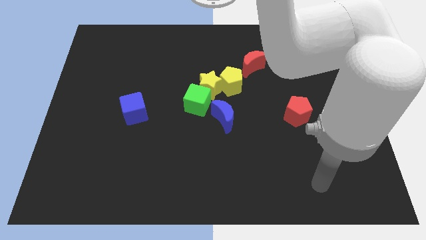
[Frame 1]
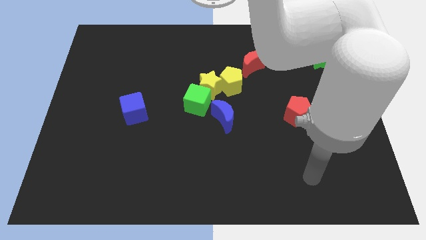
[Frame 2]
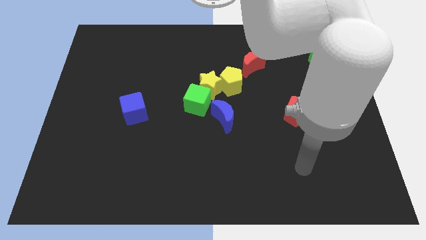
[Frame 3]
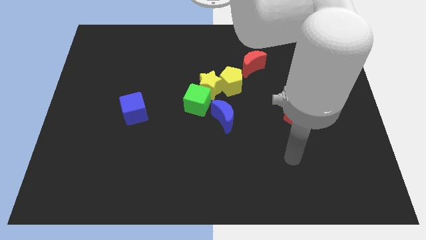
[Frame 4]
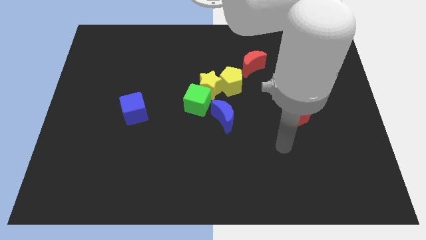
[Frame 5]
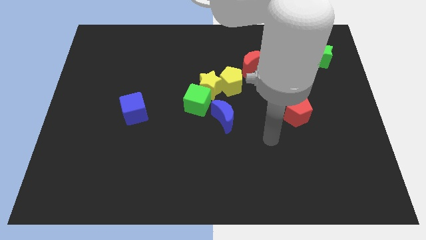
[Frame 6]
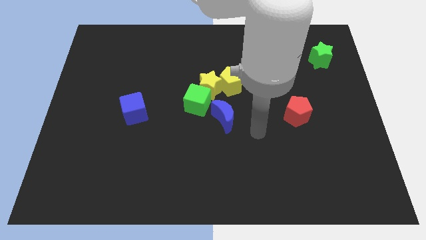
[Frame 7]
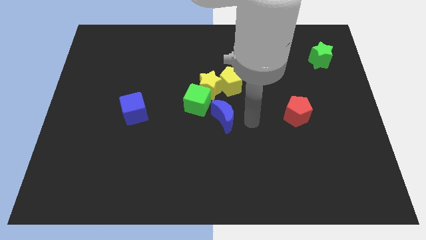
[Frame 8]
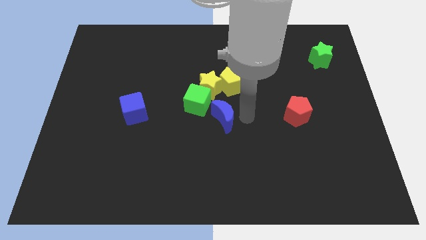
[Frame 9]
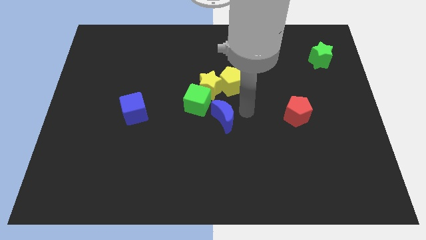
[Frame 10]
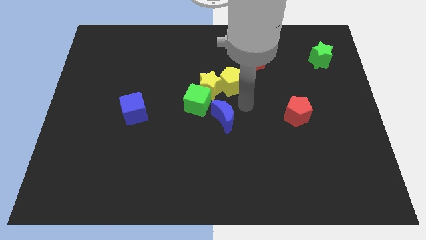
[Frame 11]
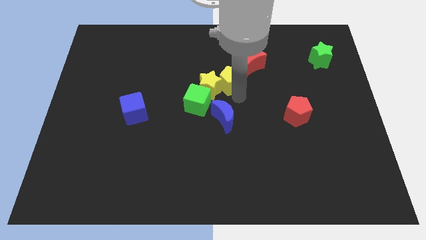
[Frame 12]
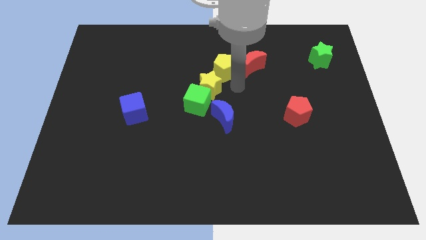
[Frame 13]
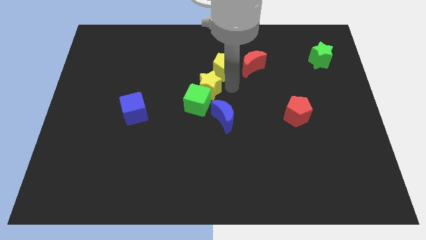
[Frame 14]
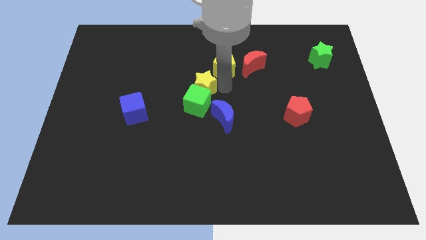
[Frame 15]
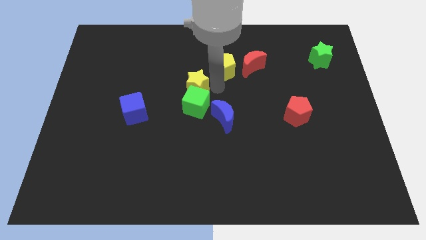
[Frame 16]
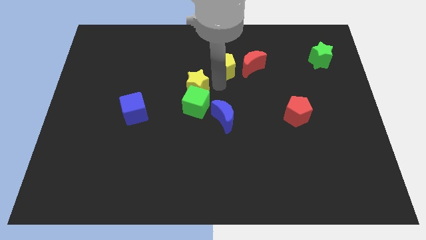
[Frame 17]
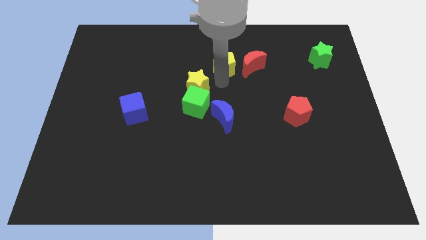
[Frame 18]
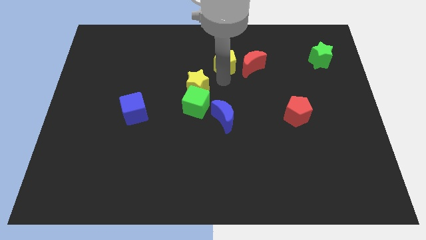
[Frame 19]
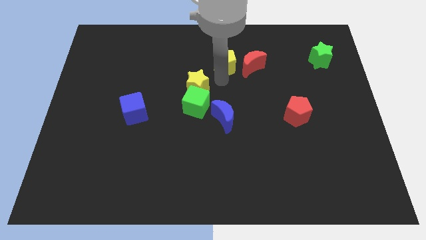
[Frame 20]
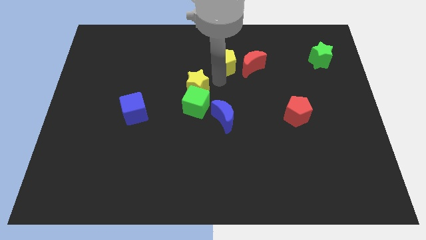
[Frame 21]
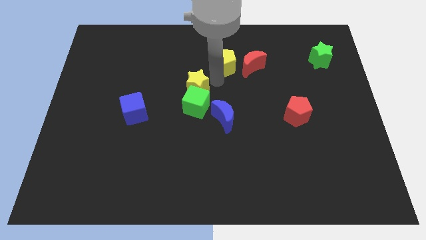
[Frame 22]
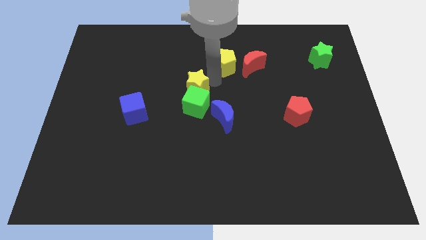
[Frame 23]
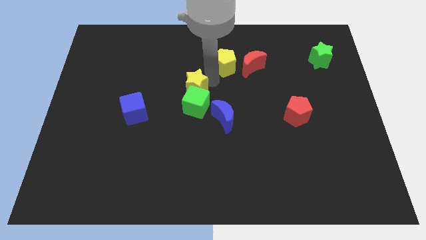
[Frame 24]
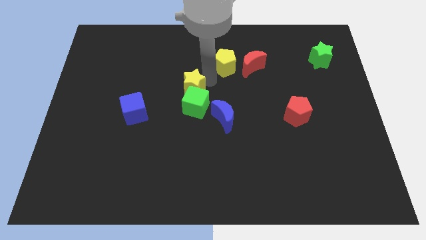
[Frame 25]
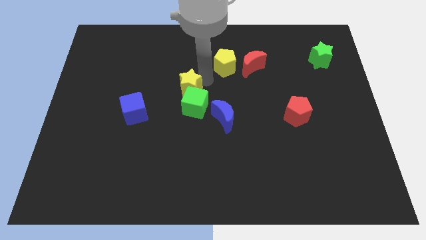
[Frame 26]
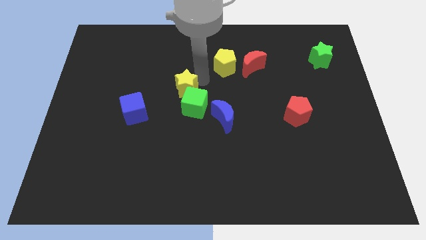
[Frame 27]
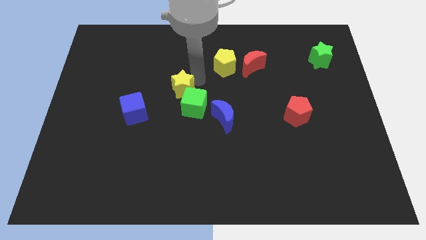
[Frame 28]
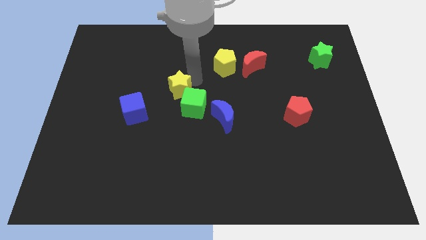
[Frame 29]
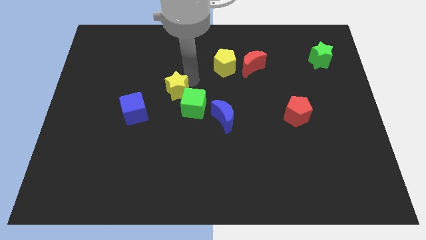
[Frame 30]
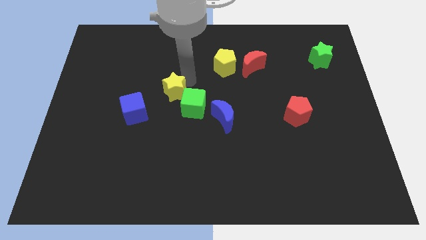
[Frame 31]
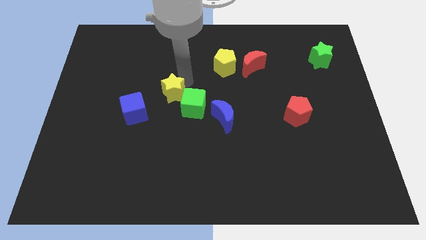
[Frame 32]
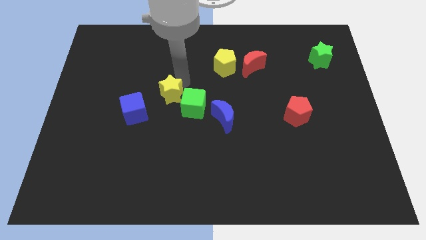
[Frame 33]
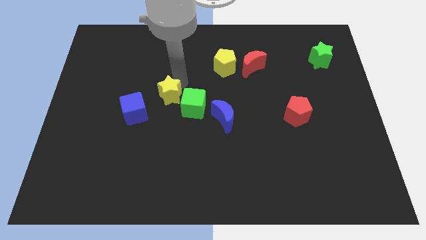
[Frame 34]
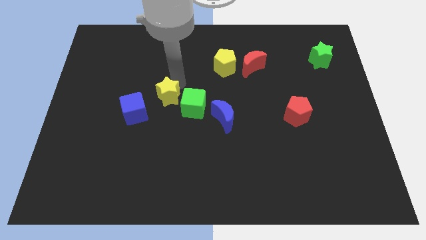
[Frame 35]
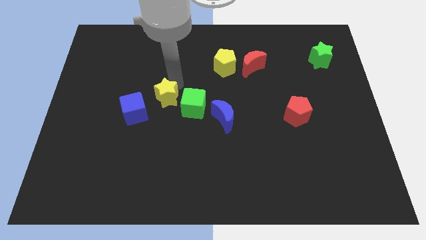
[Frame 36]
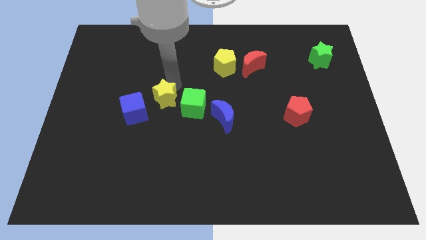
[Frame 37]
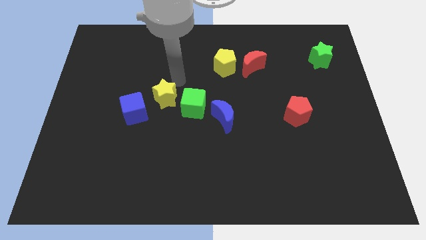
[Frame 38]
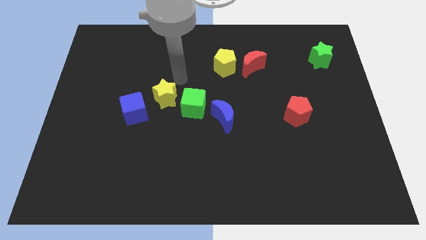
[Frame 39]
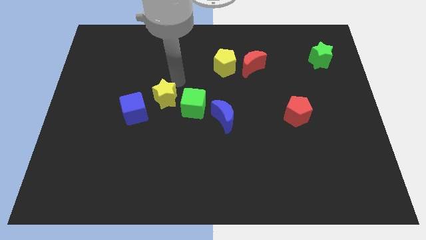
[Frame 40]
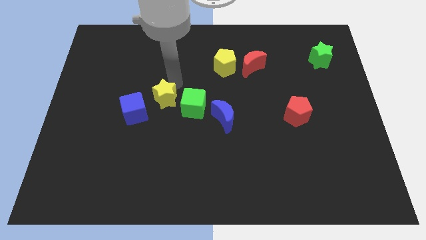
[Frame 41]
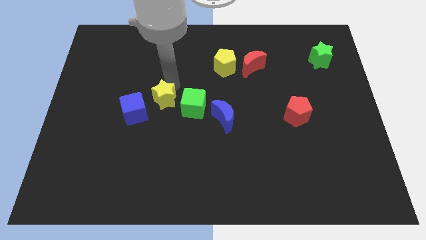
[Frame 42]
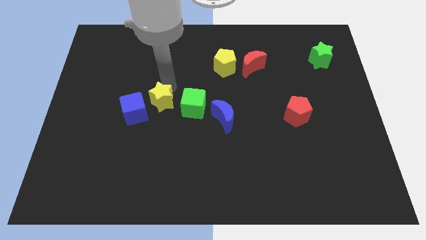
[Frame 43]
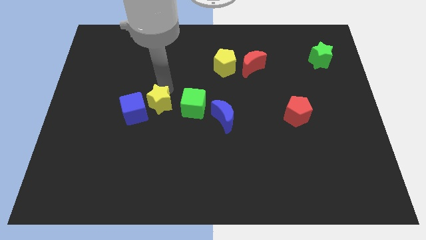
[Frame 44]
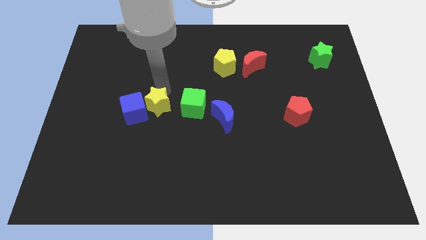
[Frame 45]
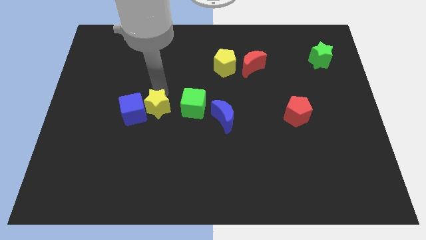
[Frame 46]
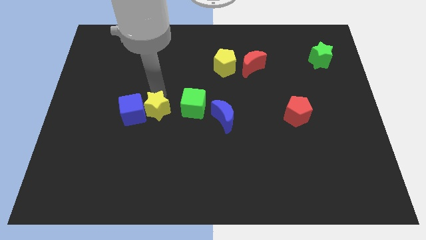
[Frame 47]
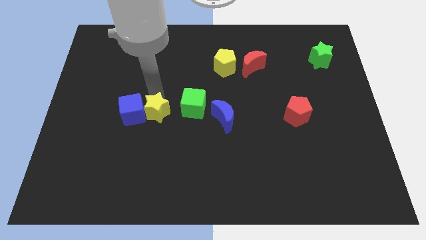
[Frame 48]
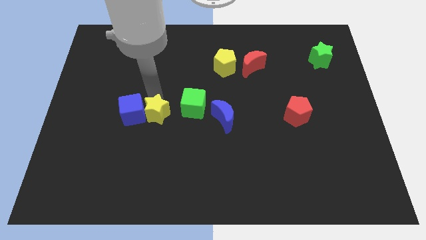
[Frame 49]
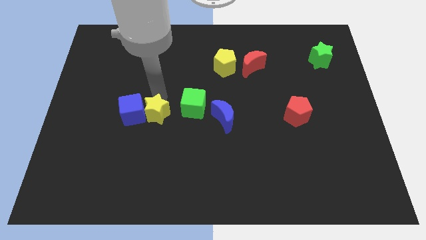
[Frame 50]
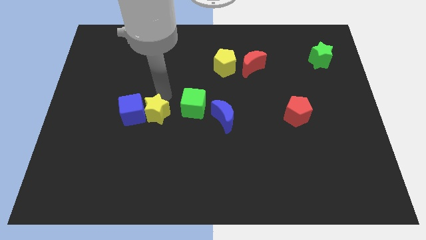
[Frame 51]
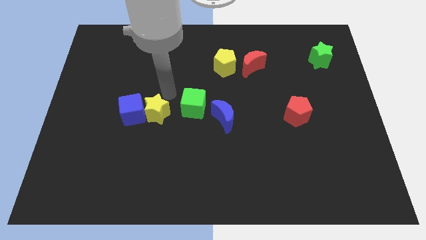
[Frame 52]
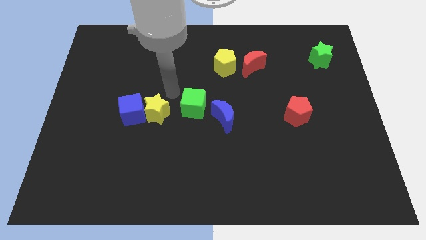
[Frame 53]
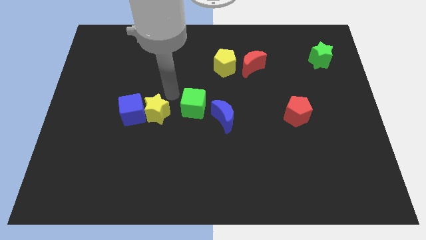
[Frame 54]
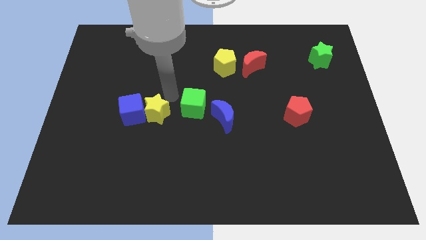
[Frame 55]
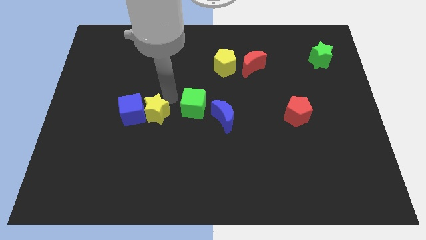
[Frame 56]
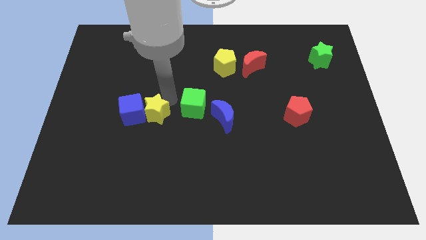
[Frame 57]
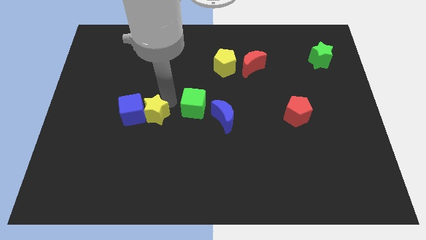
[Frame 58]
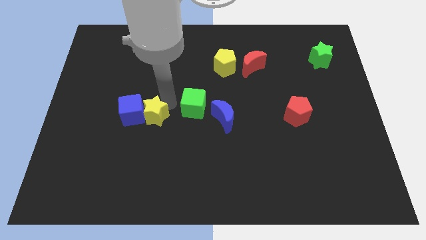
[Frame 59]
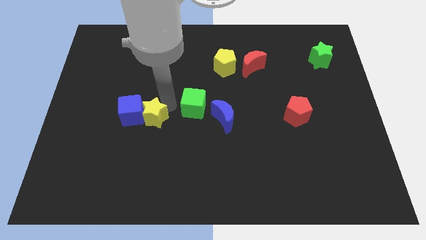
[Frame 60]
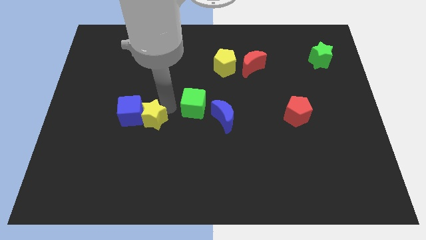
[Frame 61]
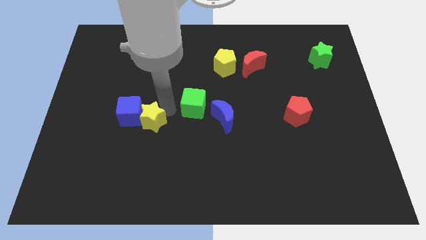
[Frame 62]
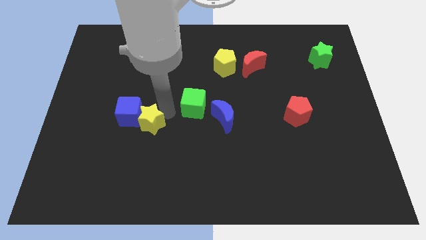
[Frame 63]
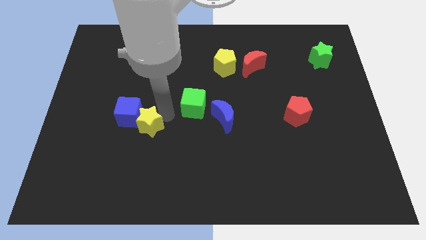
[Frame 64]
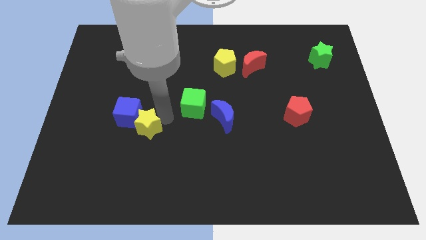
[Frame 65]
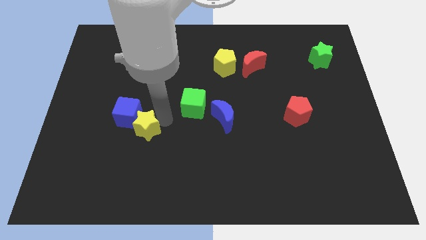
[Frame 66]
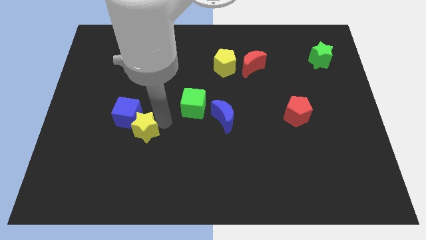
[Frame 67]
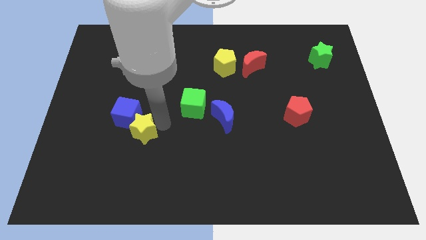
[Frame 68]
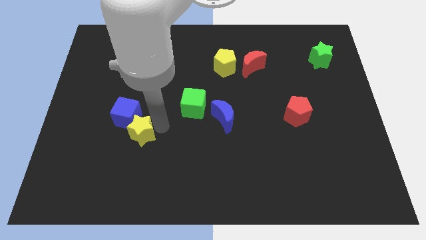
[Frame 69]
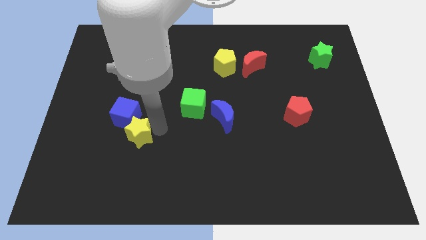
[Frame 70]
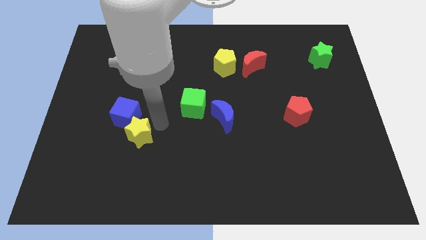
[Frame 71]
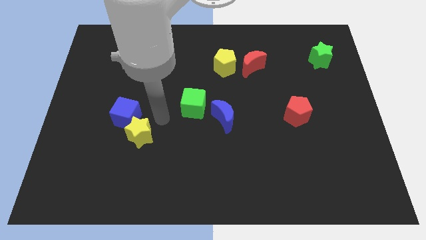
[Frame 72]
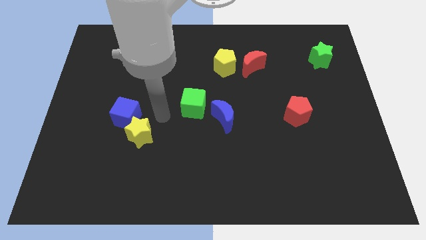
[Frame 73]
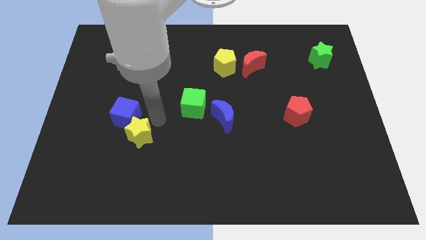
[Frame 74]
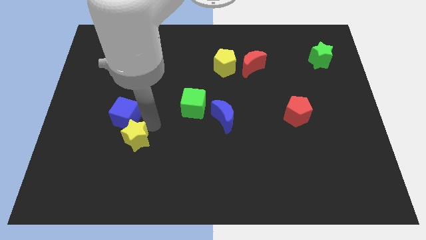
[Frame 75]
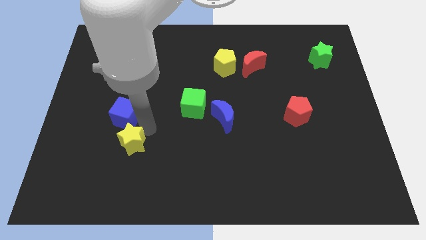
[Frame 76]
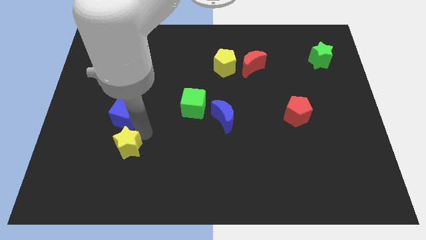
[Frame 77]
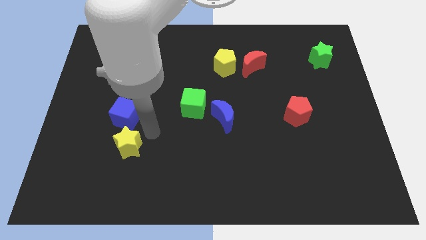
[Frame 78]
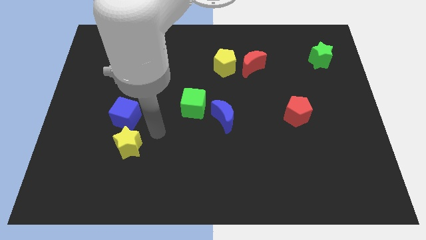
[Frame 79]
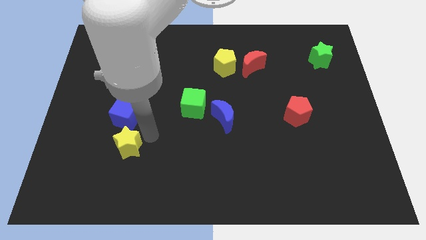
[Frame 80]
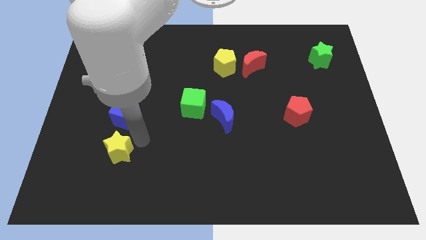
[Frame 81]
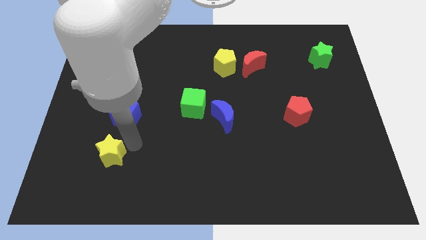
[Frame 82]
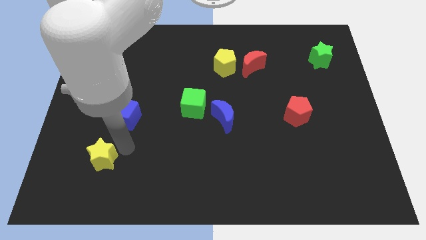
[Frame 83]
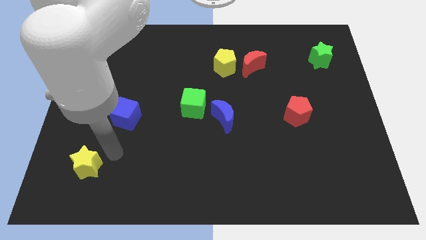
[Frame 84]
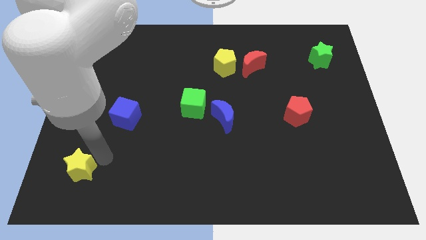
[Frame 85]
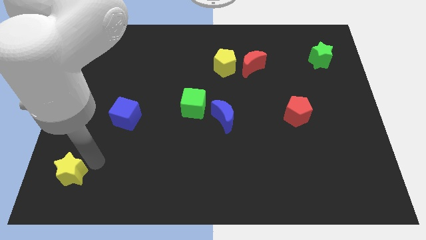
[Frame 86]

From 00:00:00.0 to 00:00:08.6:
put the yellow star to the lower left corner
